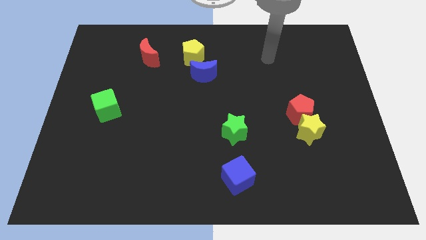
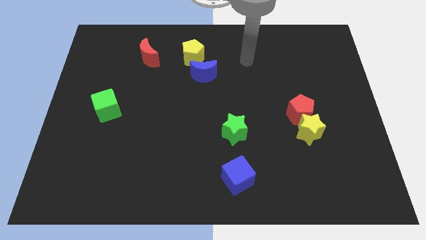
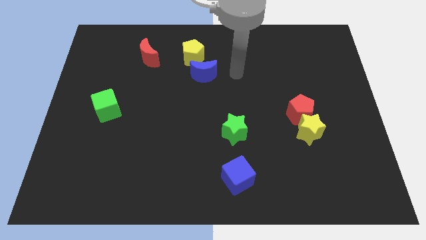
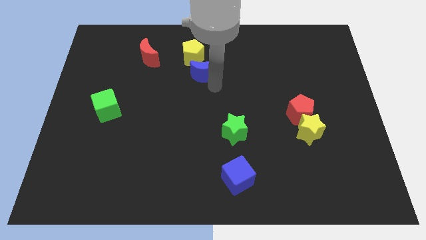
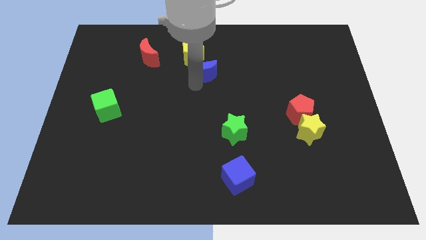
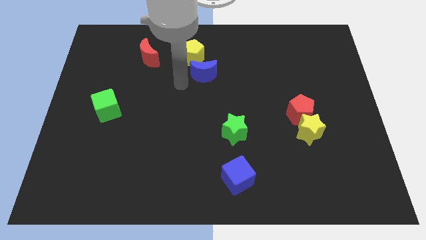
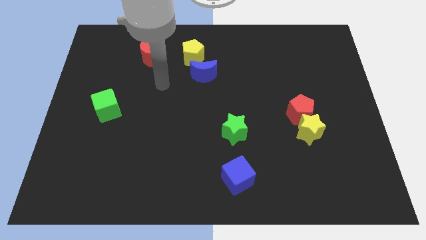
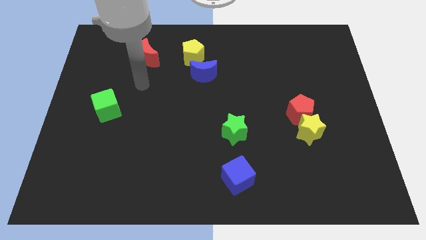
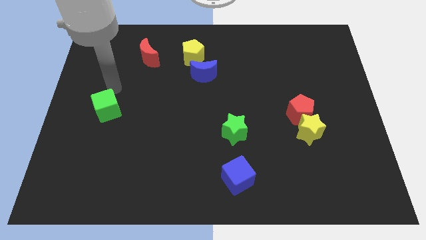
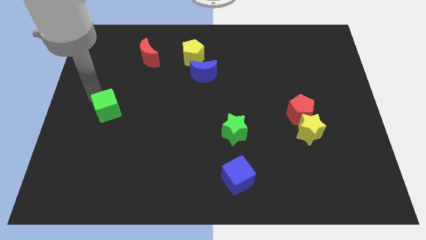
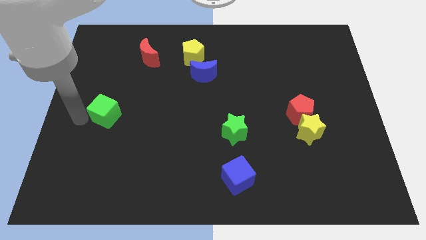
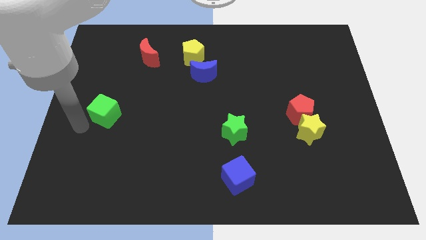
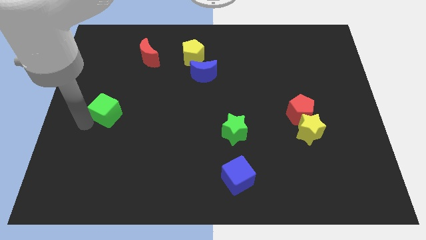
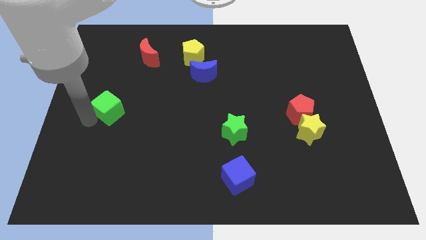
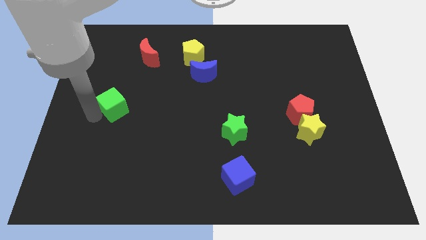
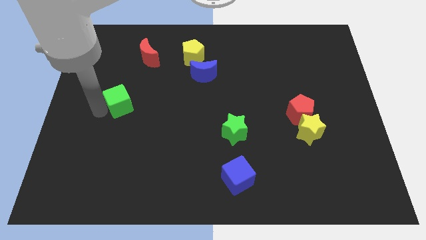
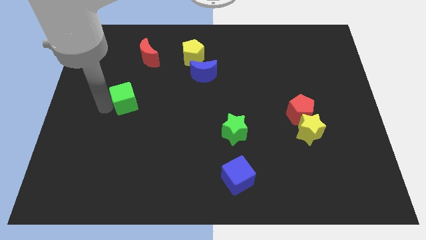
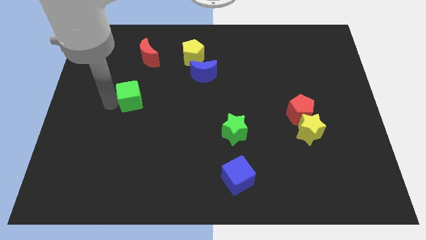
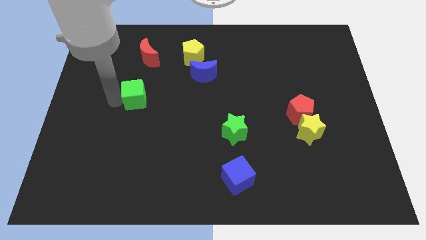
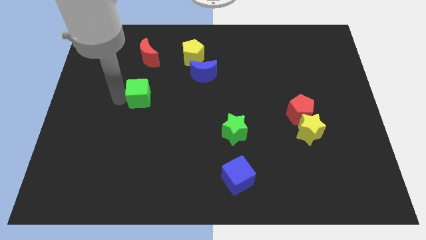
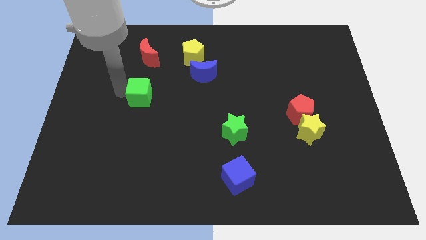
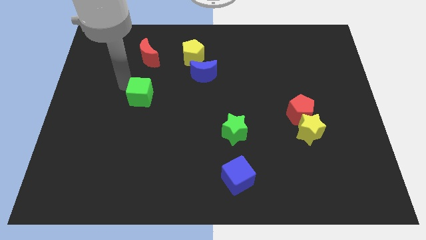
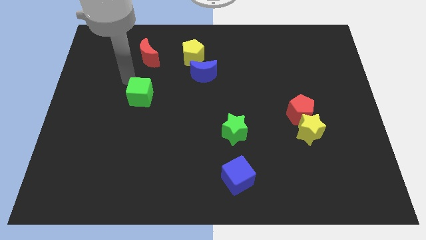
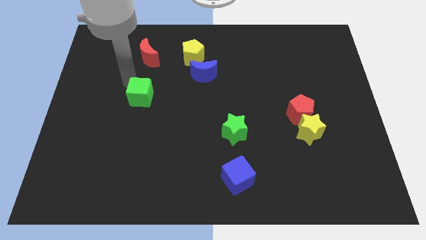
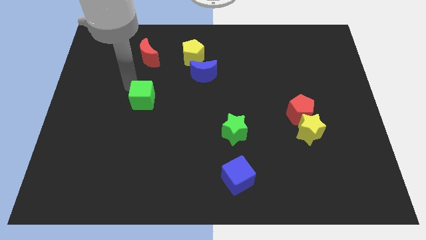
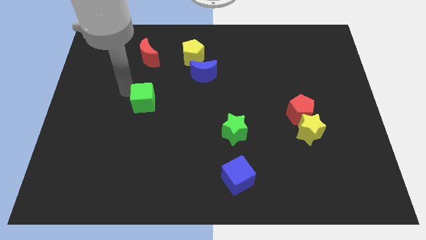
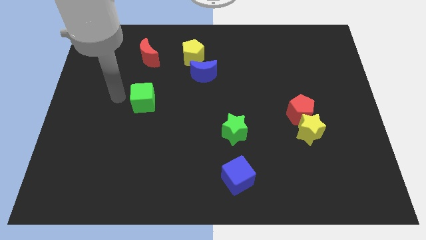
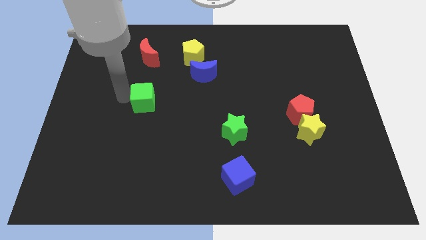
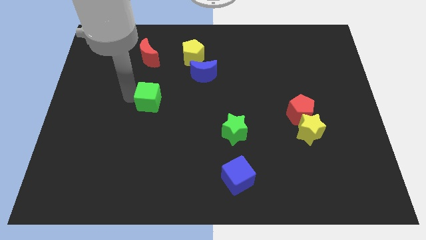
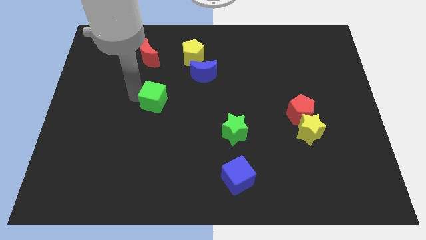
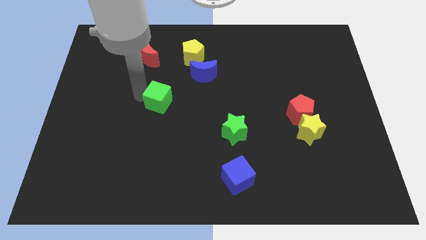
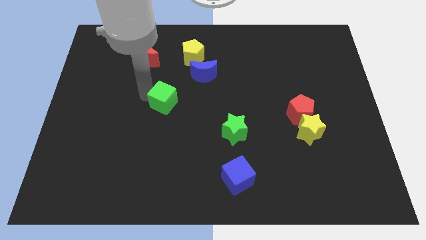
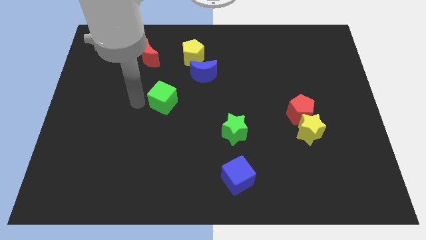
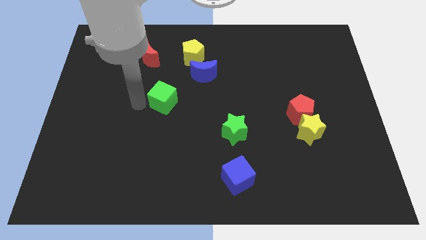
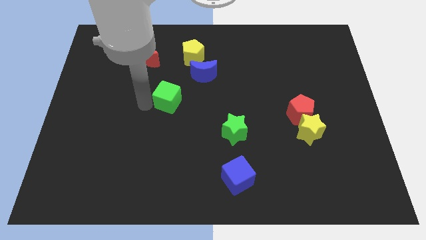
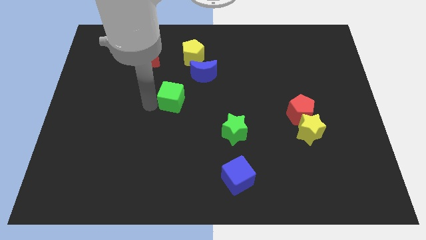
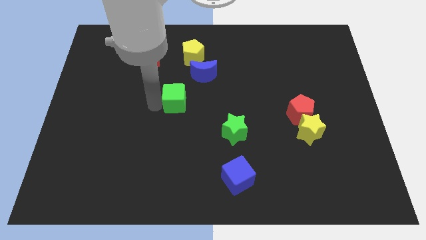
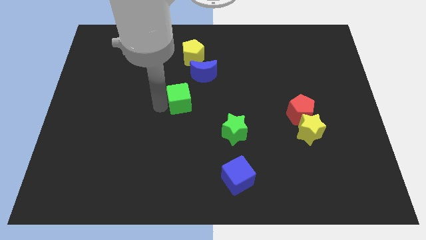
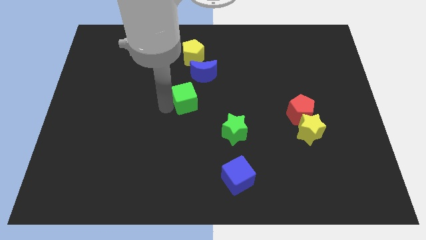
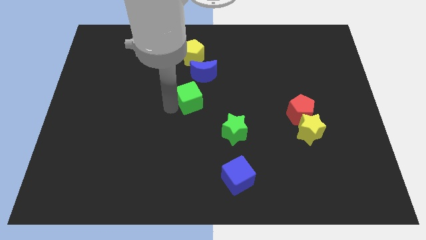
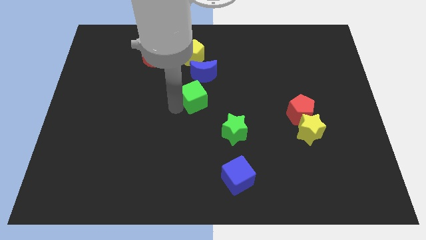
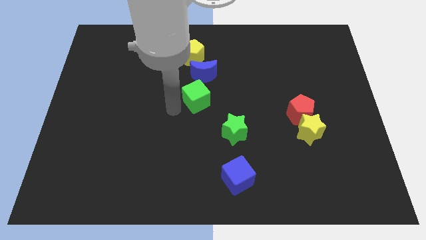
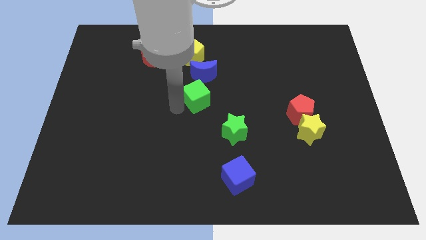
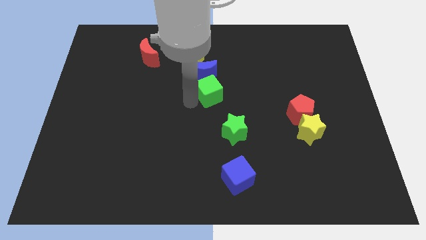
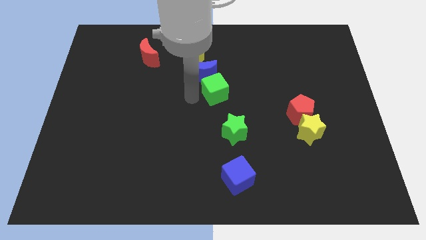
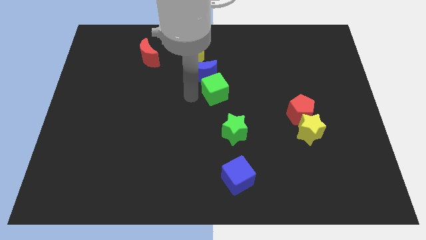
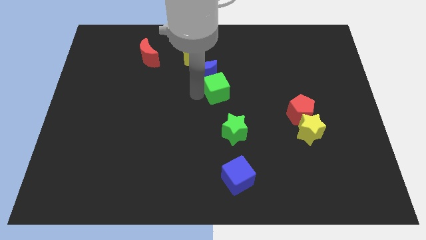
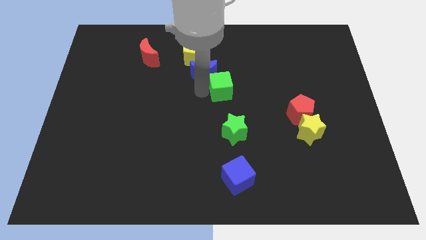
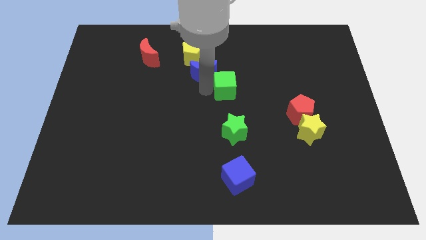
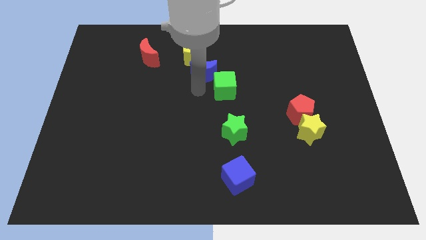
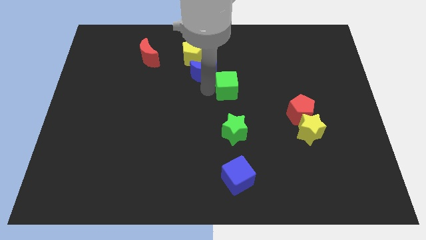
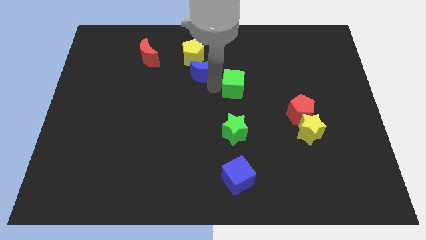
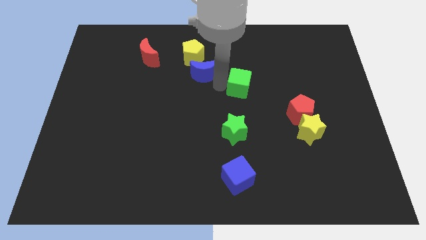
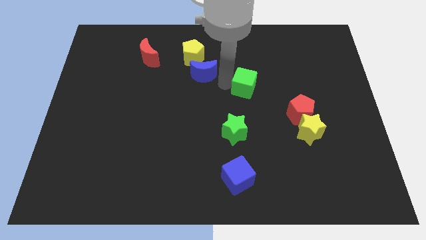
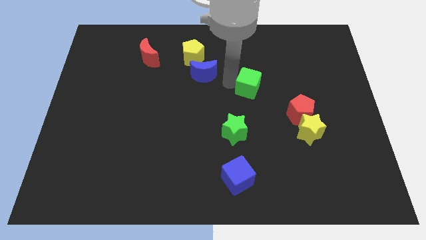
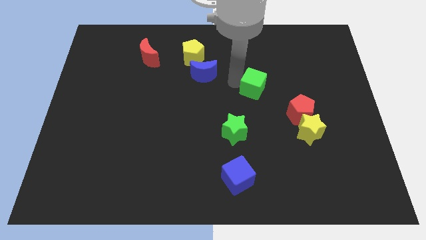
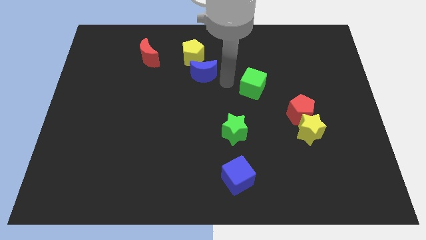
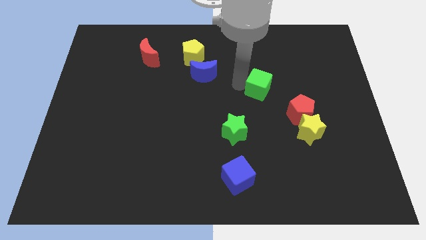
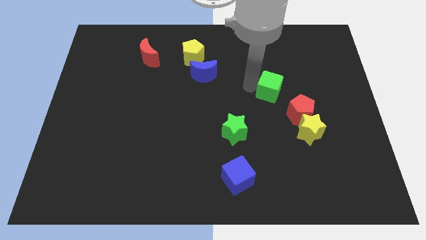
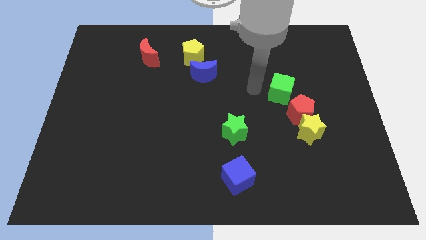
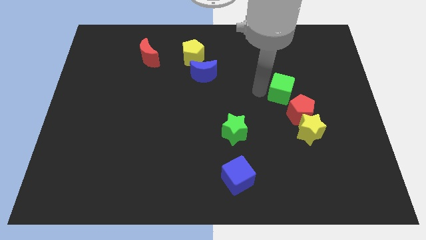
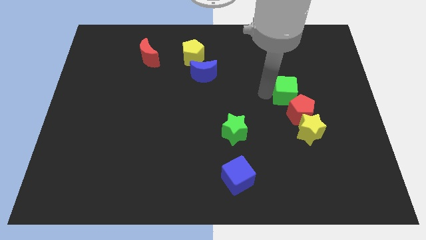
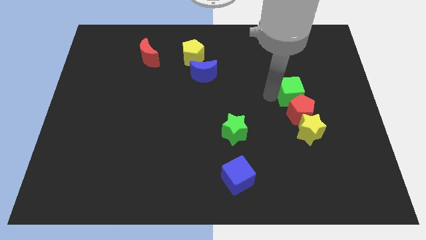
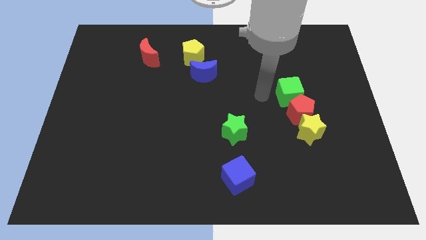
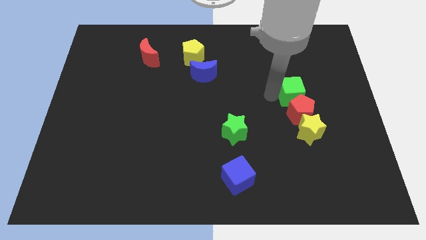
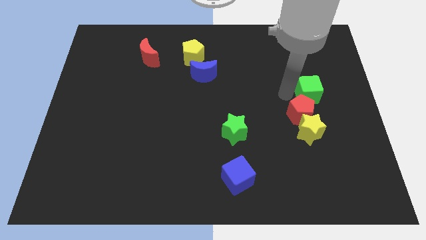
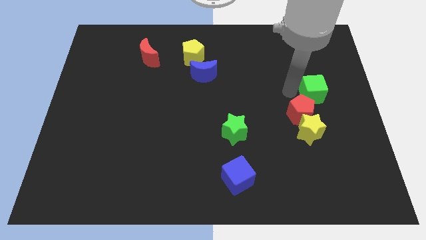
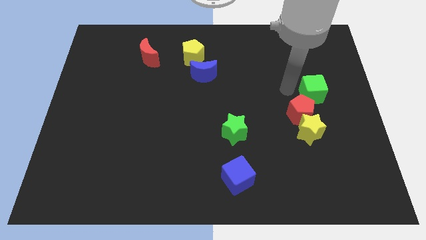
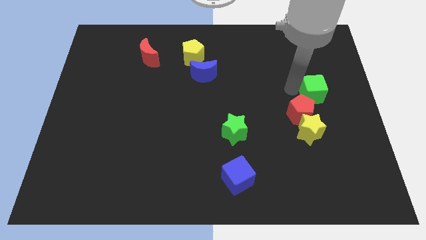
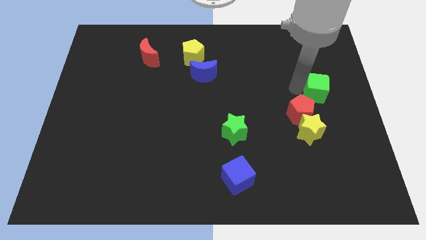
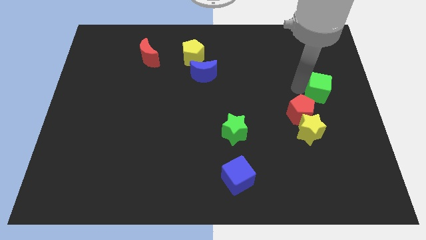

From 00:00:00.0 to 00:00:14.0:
push the green cube to the center right

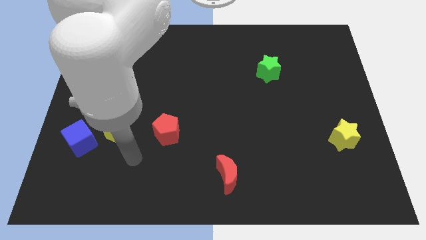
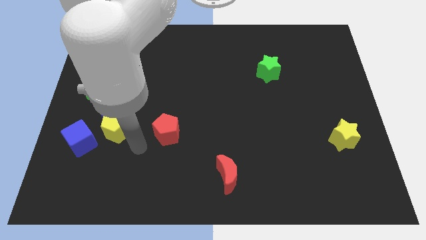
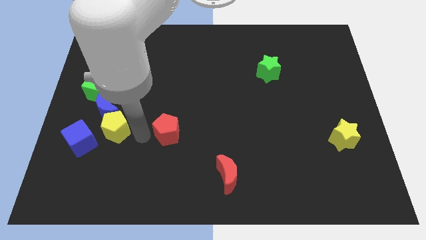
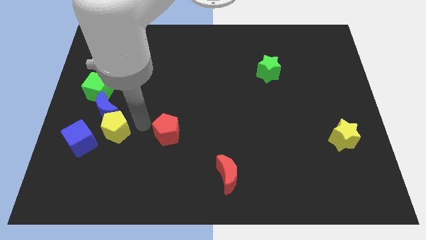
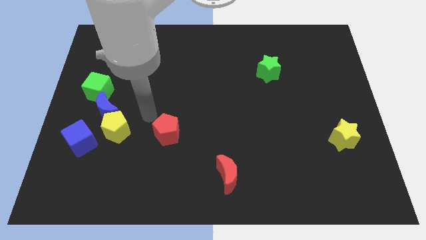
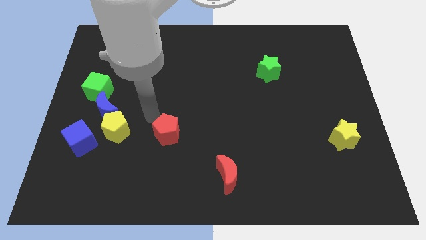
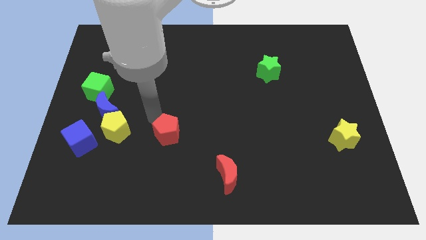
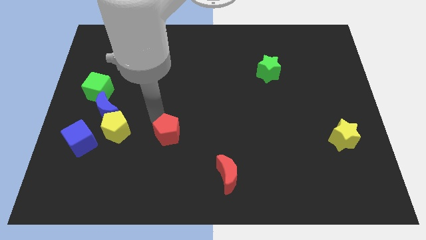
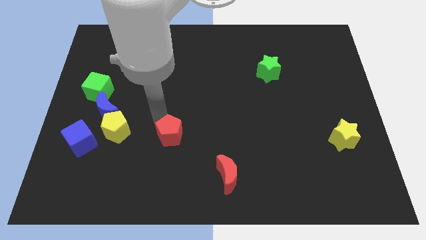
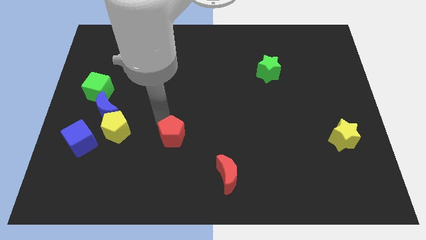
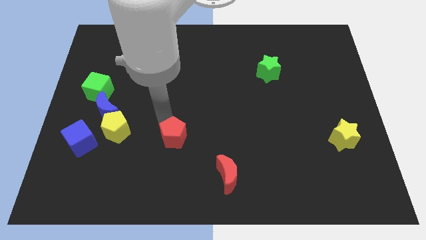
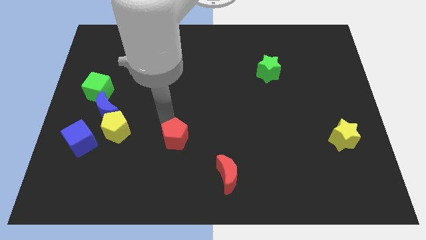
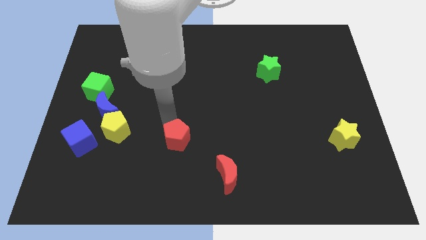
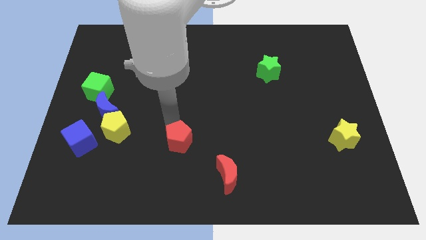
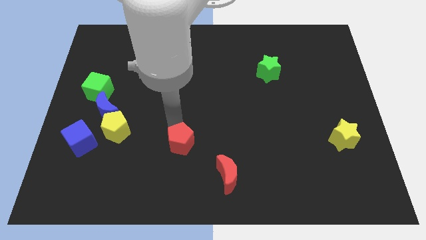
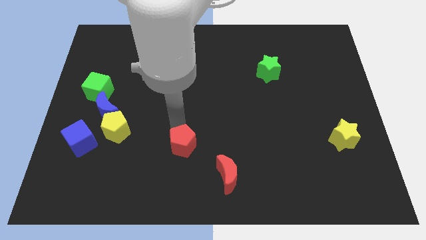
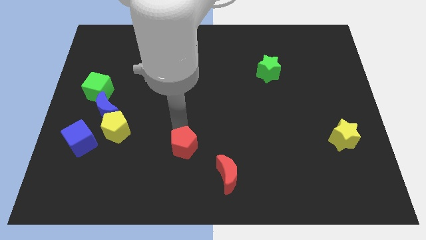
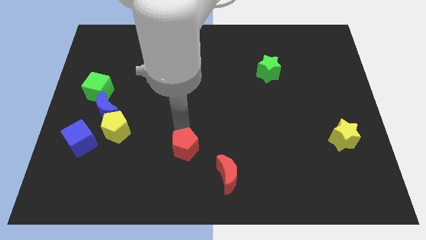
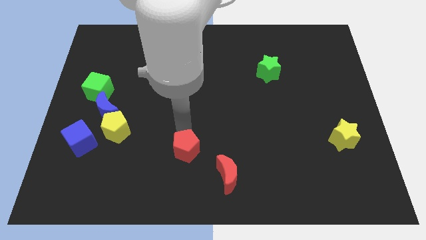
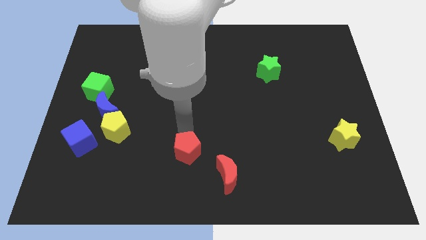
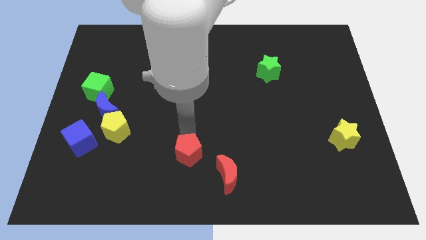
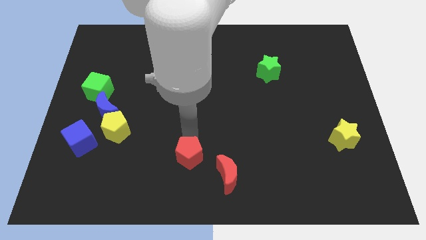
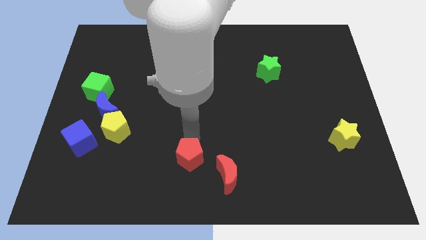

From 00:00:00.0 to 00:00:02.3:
put the red pentagon to the bottom side
